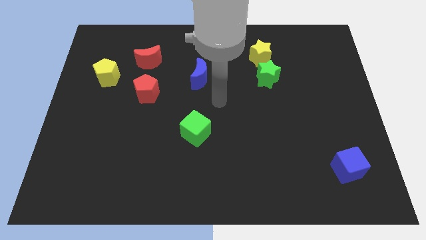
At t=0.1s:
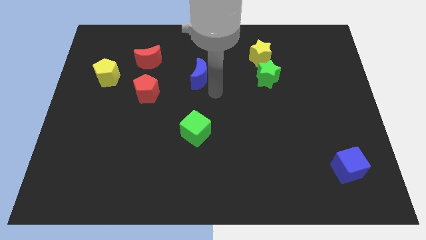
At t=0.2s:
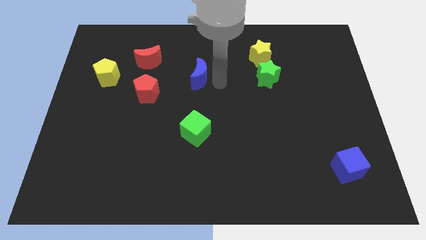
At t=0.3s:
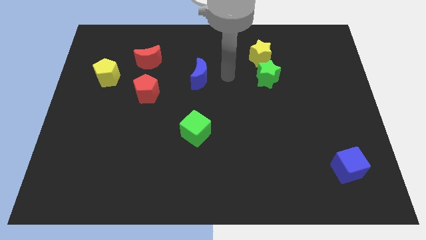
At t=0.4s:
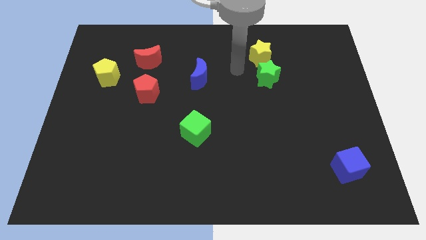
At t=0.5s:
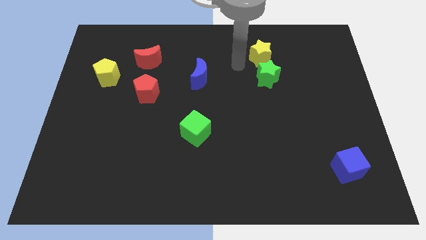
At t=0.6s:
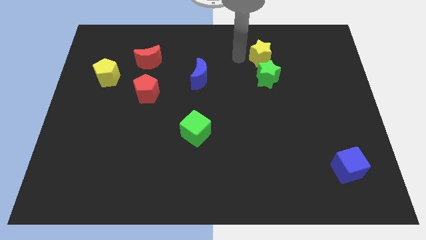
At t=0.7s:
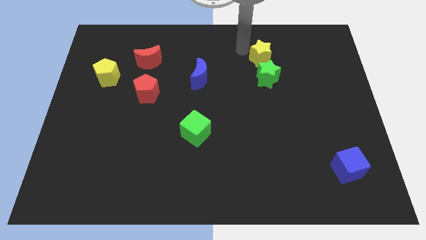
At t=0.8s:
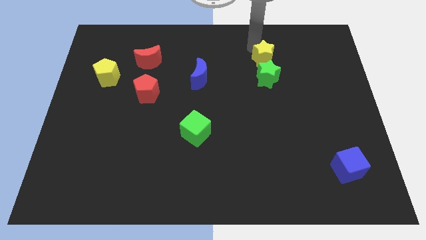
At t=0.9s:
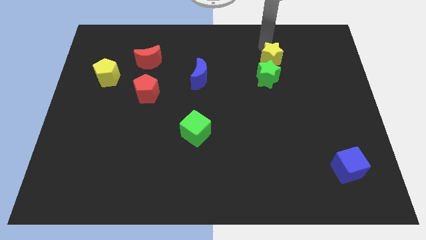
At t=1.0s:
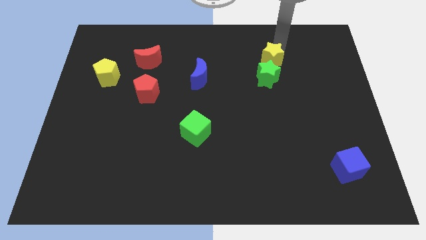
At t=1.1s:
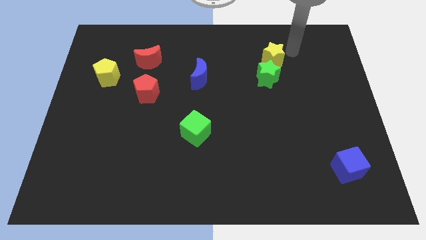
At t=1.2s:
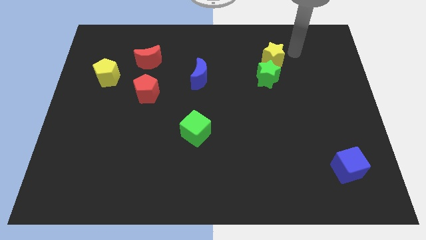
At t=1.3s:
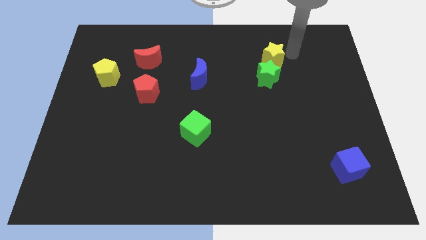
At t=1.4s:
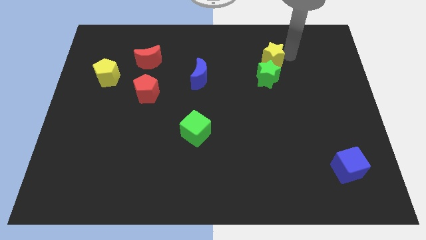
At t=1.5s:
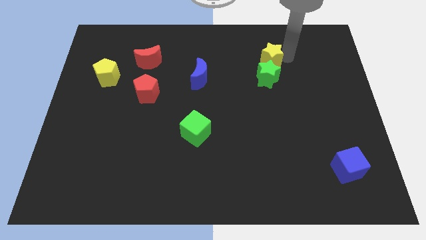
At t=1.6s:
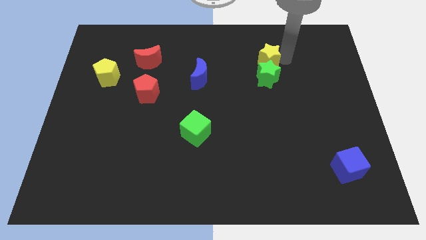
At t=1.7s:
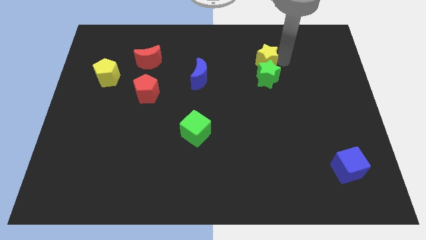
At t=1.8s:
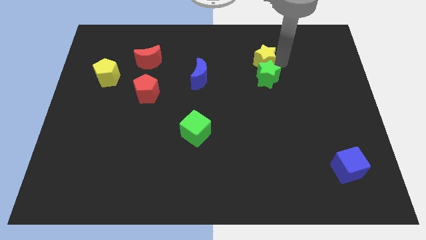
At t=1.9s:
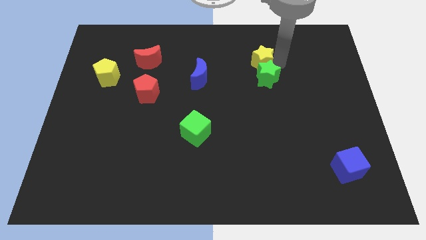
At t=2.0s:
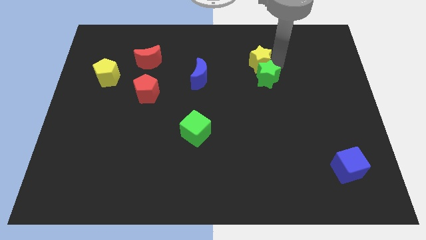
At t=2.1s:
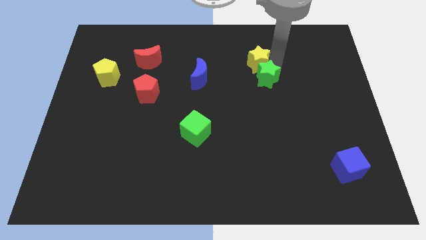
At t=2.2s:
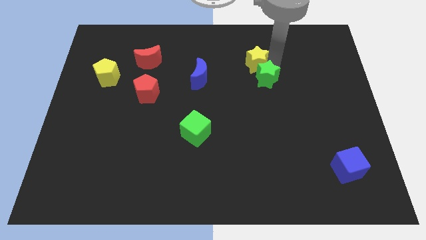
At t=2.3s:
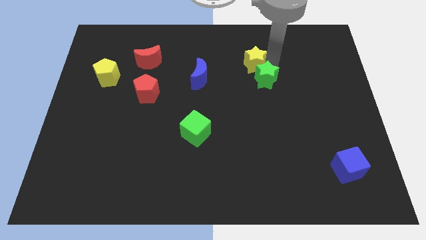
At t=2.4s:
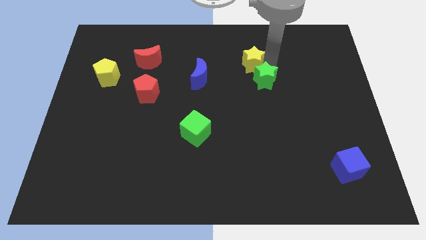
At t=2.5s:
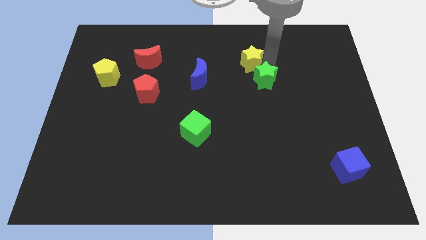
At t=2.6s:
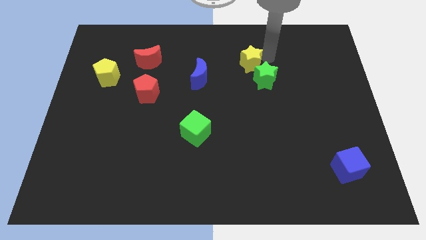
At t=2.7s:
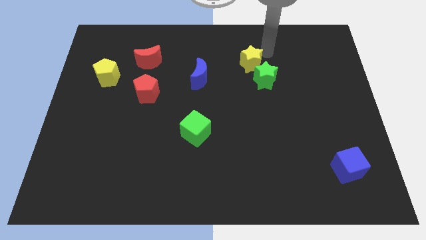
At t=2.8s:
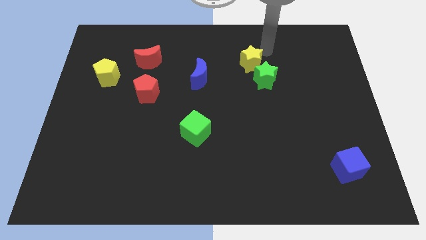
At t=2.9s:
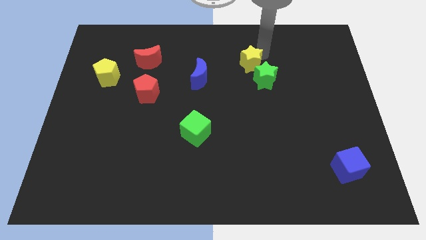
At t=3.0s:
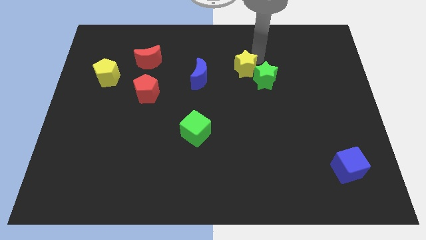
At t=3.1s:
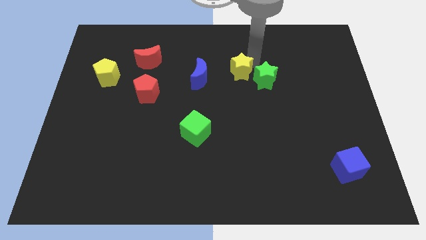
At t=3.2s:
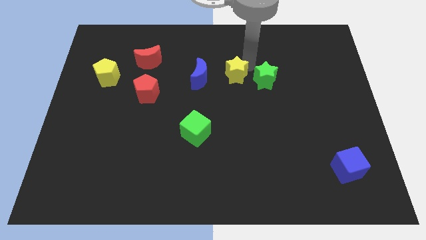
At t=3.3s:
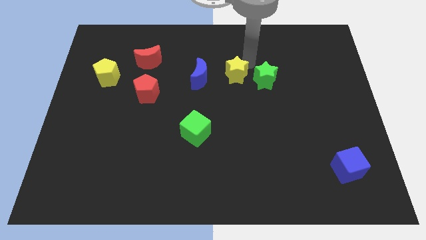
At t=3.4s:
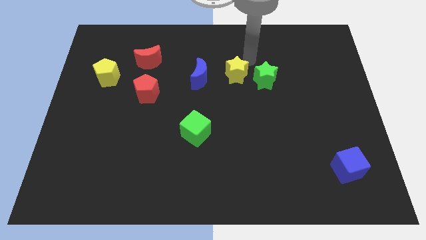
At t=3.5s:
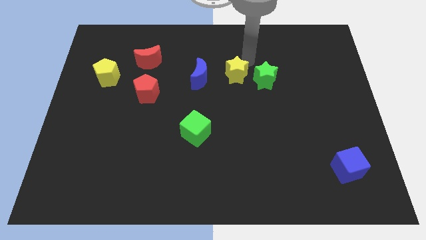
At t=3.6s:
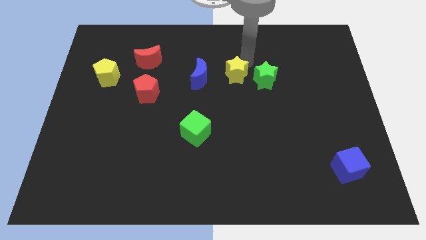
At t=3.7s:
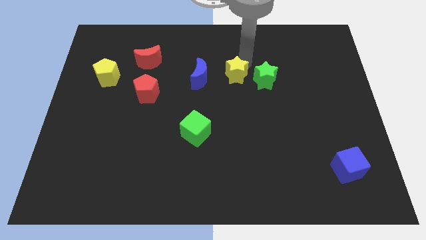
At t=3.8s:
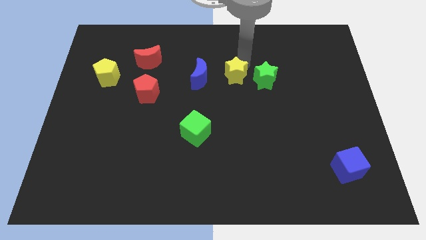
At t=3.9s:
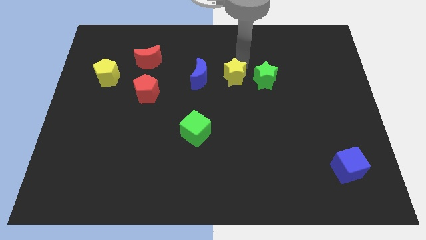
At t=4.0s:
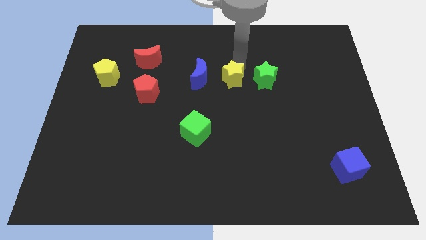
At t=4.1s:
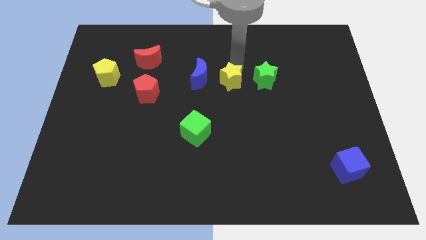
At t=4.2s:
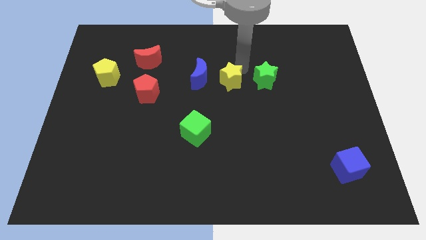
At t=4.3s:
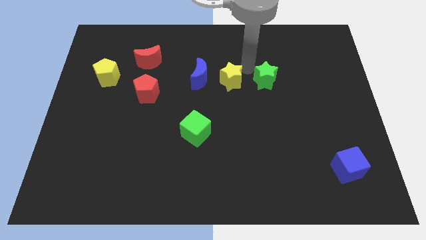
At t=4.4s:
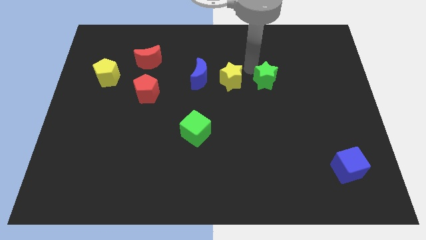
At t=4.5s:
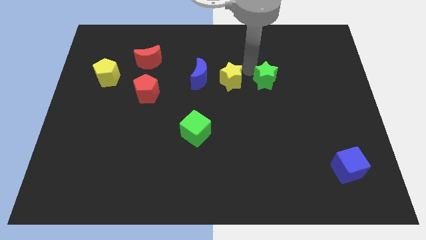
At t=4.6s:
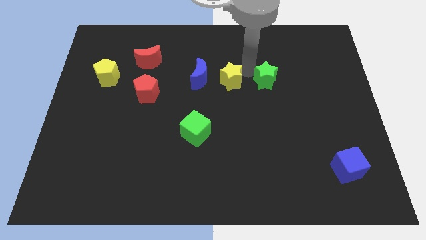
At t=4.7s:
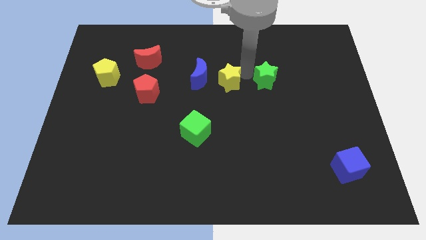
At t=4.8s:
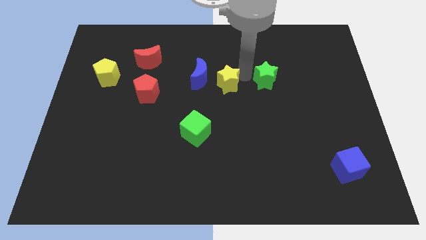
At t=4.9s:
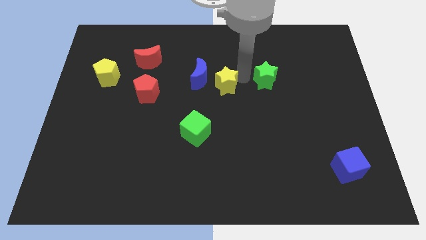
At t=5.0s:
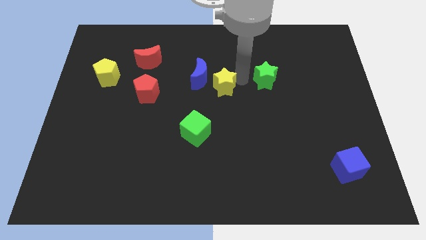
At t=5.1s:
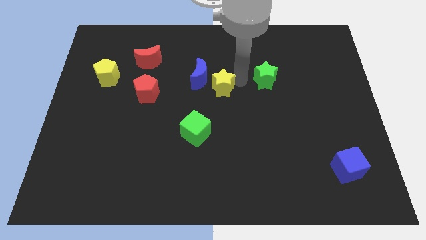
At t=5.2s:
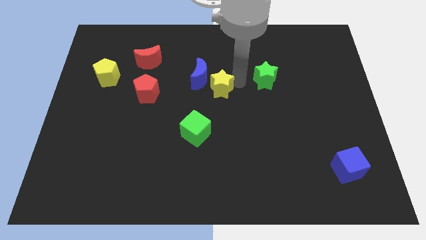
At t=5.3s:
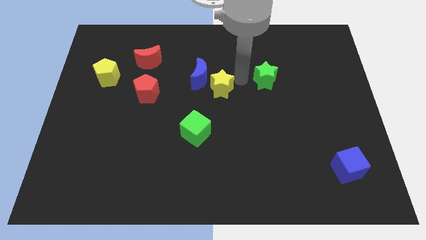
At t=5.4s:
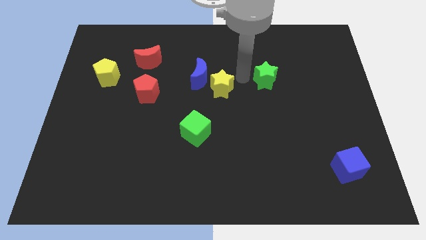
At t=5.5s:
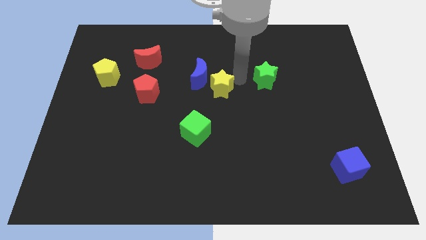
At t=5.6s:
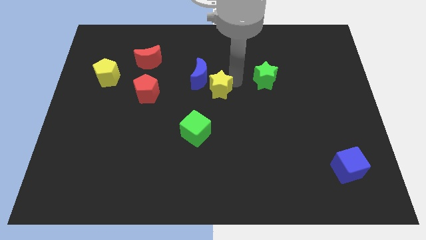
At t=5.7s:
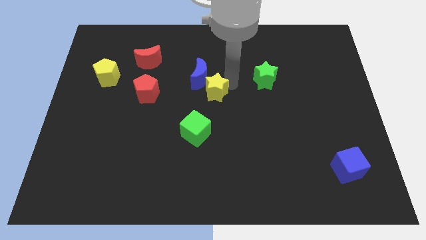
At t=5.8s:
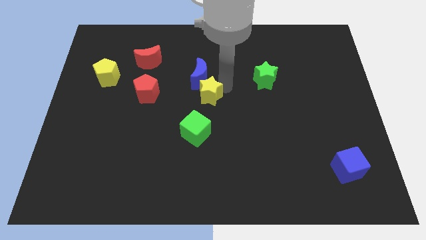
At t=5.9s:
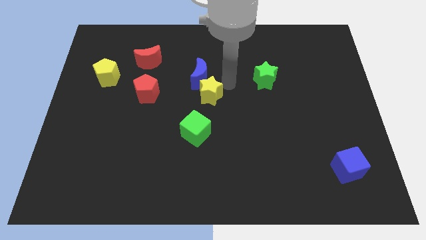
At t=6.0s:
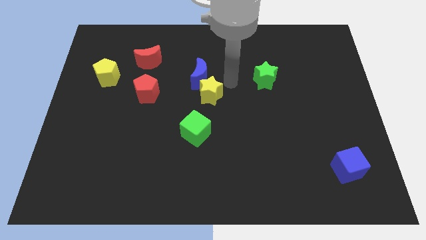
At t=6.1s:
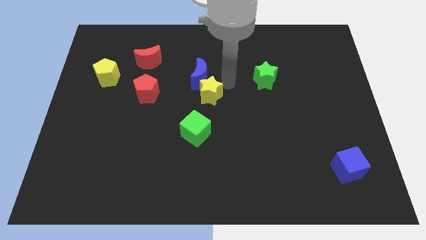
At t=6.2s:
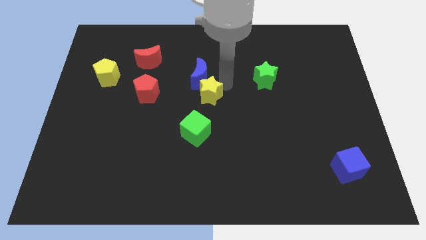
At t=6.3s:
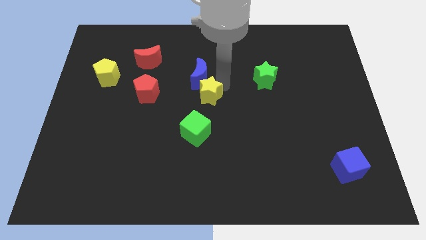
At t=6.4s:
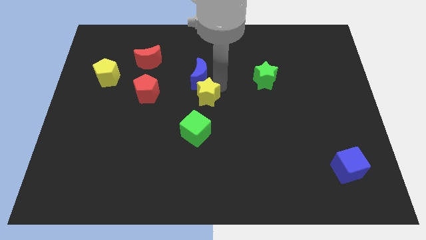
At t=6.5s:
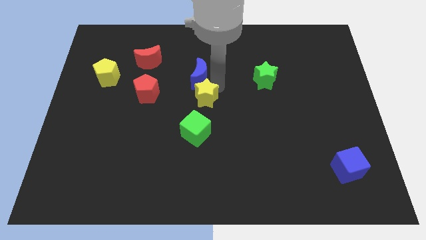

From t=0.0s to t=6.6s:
move the yellow star downwards and then to the left

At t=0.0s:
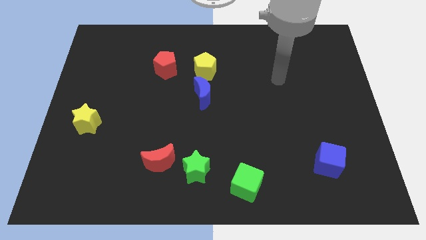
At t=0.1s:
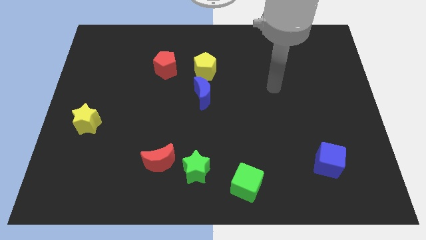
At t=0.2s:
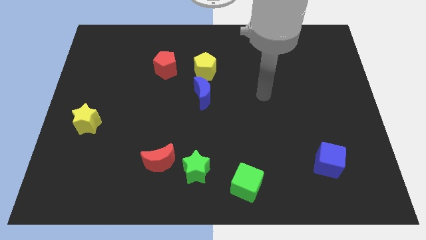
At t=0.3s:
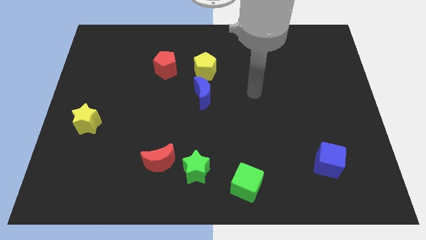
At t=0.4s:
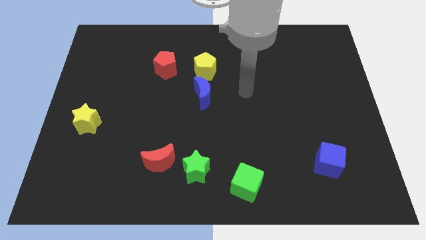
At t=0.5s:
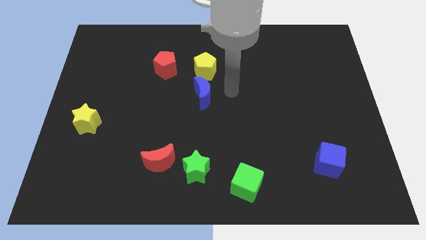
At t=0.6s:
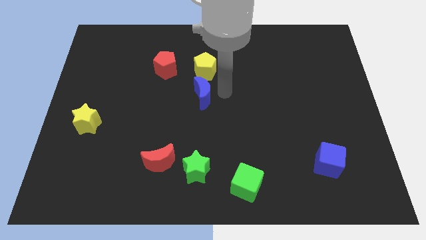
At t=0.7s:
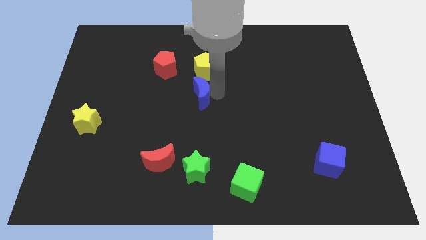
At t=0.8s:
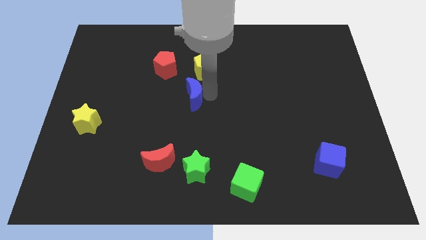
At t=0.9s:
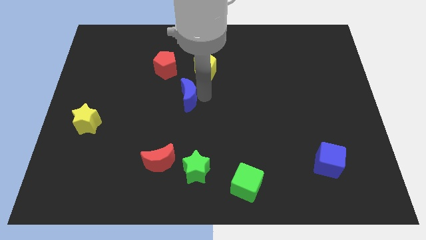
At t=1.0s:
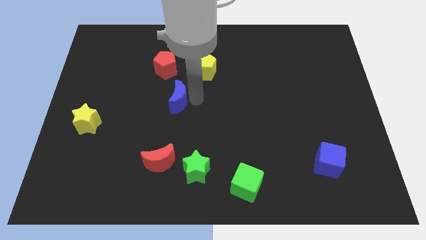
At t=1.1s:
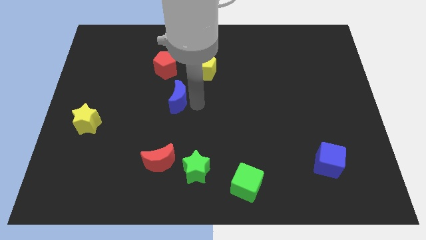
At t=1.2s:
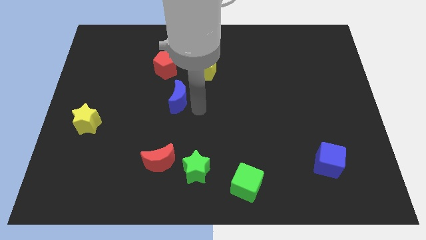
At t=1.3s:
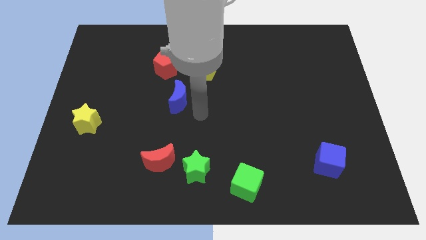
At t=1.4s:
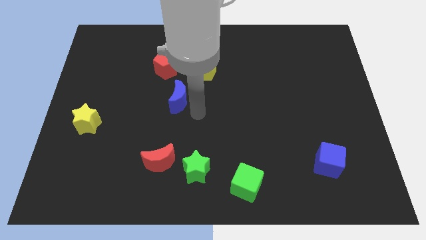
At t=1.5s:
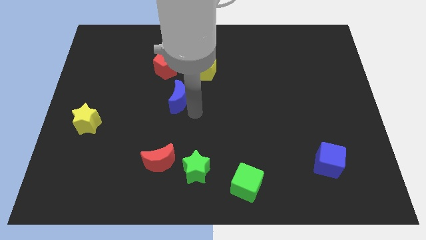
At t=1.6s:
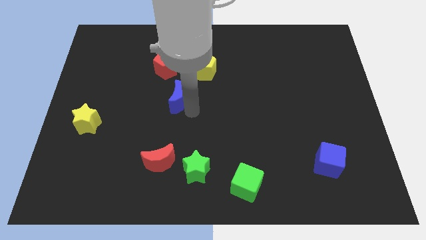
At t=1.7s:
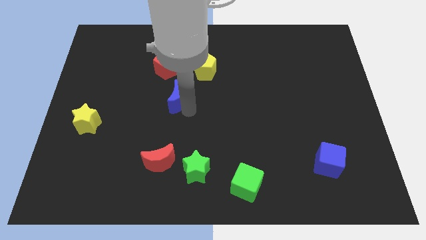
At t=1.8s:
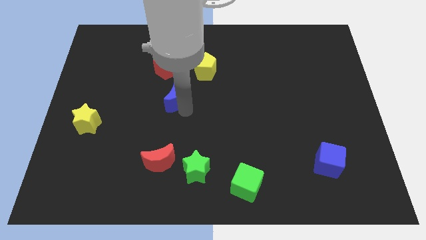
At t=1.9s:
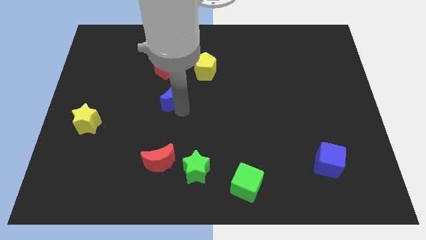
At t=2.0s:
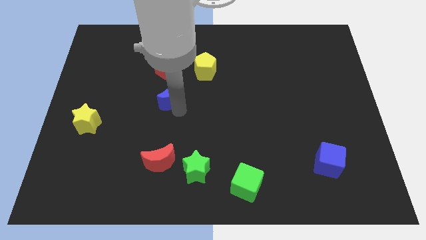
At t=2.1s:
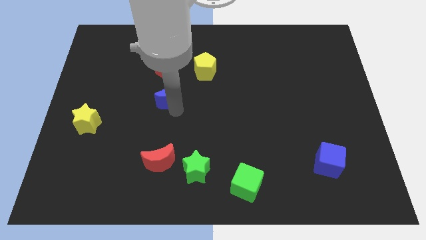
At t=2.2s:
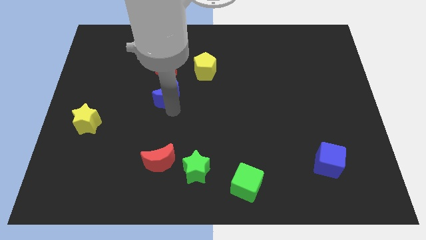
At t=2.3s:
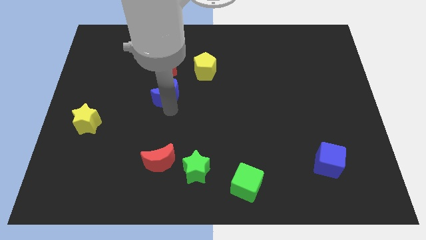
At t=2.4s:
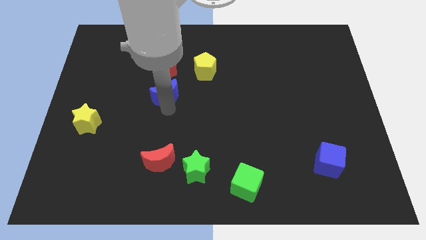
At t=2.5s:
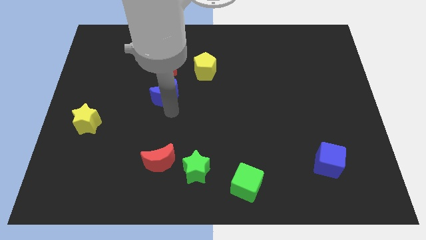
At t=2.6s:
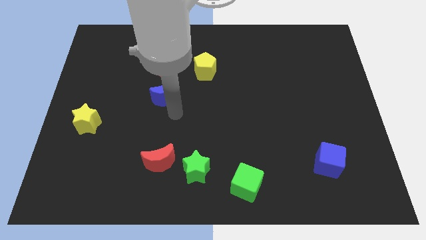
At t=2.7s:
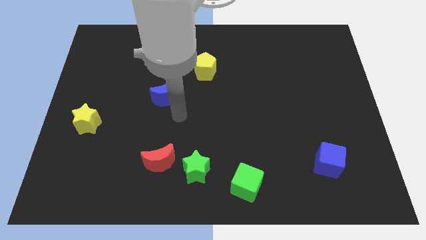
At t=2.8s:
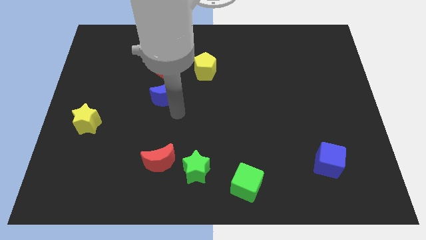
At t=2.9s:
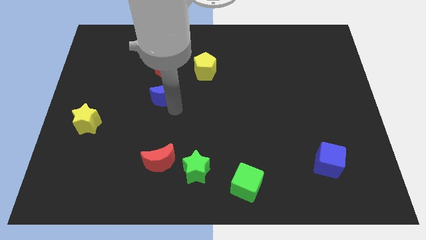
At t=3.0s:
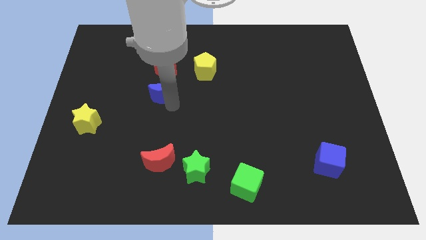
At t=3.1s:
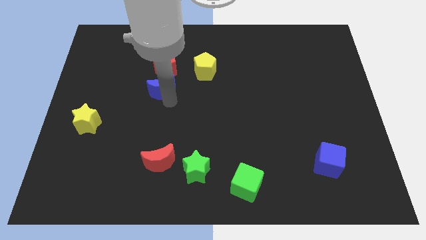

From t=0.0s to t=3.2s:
push the blue moon diagonally up and left a little bit
